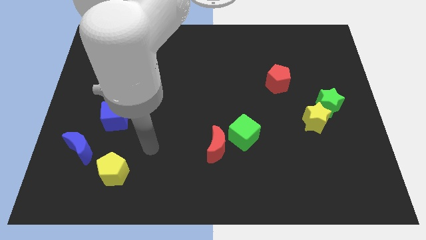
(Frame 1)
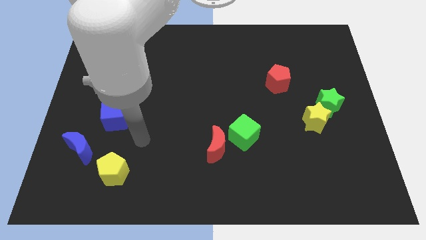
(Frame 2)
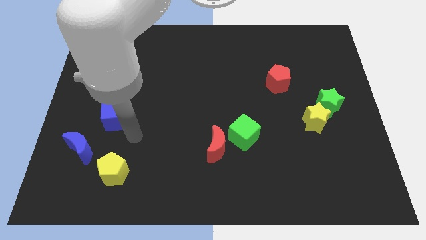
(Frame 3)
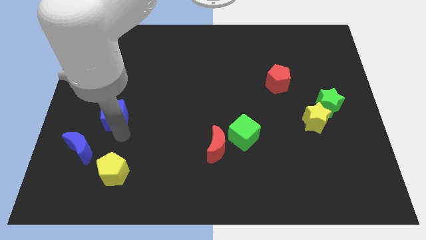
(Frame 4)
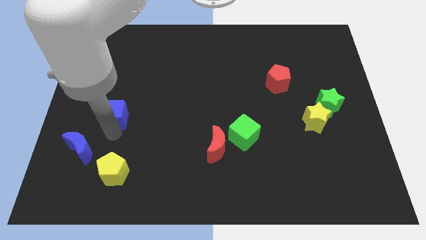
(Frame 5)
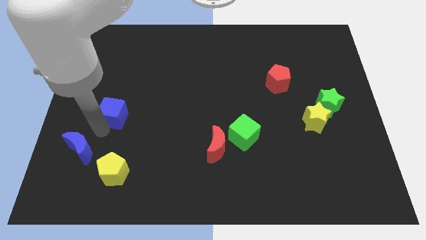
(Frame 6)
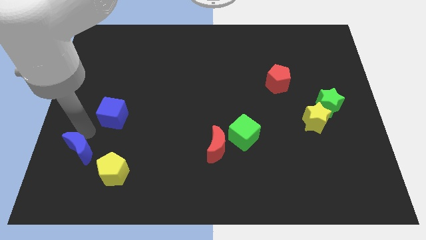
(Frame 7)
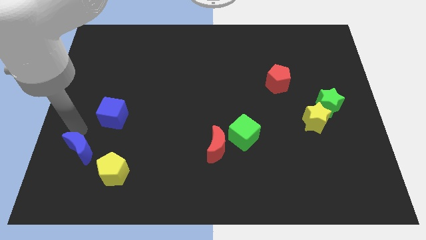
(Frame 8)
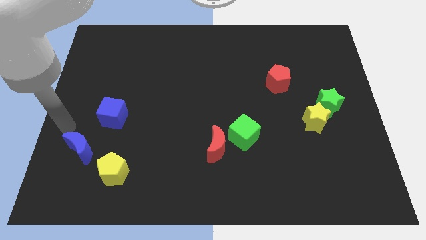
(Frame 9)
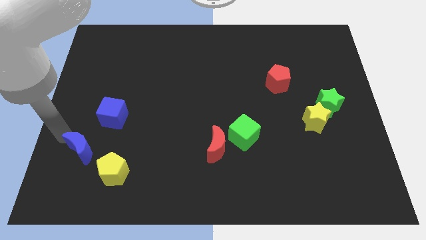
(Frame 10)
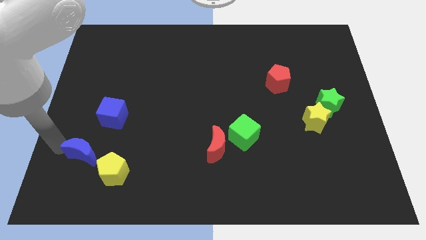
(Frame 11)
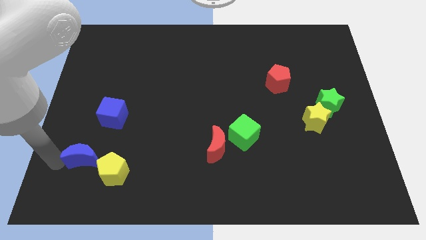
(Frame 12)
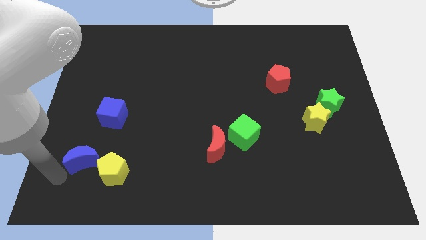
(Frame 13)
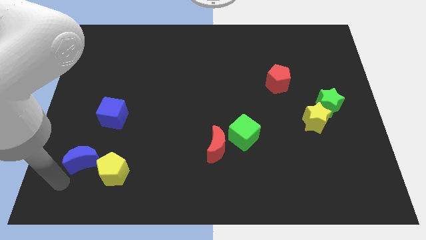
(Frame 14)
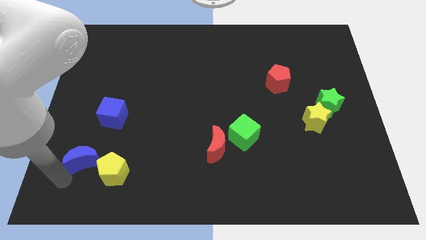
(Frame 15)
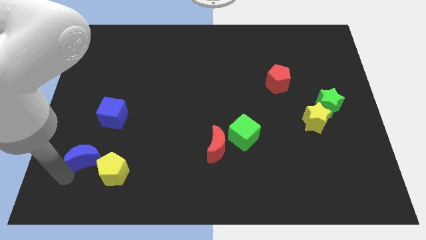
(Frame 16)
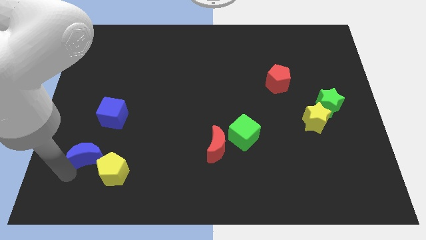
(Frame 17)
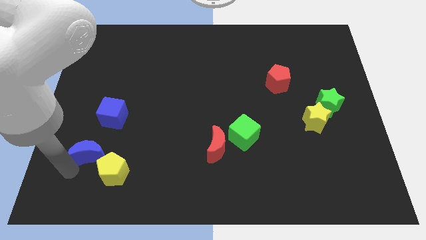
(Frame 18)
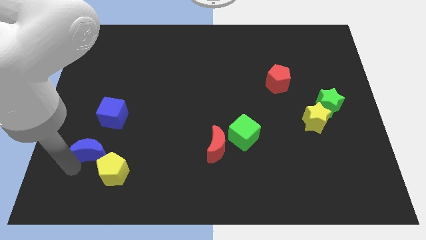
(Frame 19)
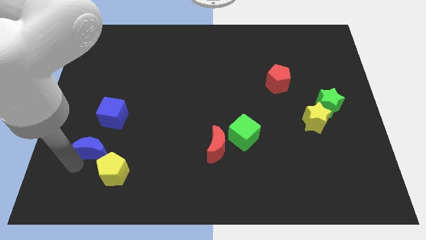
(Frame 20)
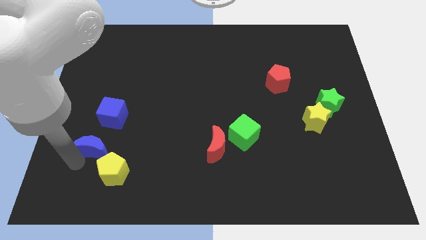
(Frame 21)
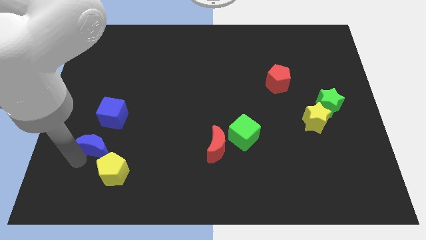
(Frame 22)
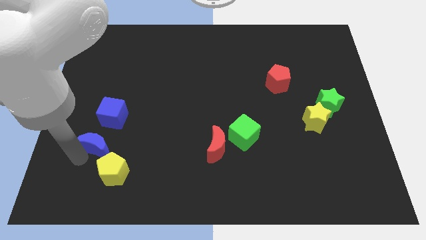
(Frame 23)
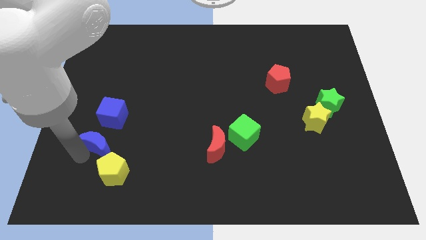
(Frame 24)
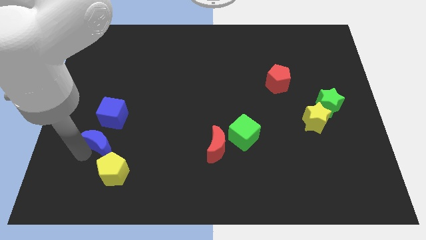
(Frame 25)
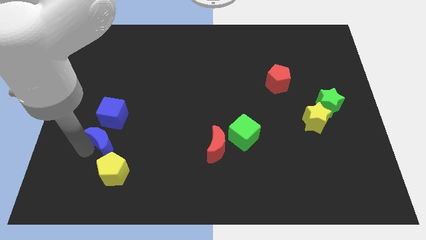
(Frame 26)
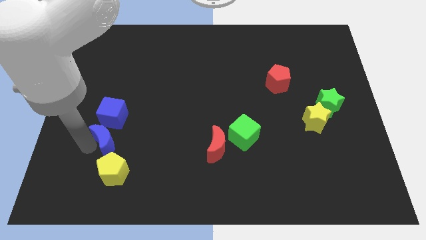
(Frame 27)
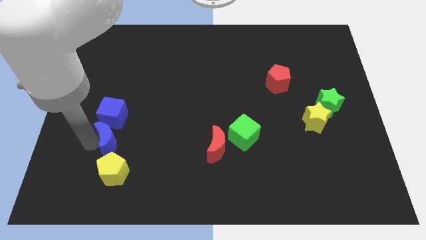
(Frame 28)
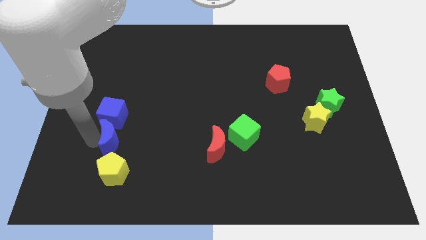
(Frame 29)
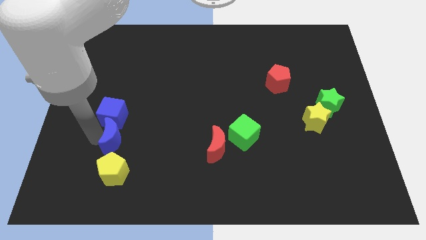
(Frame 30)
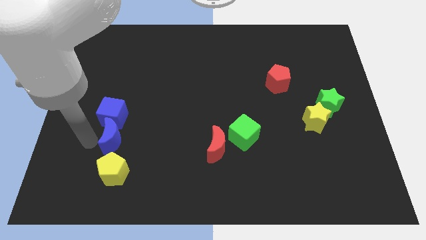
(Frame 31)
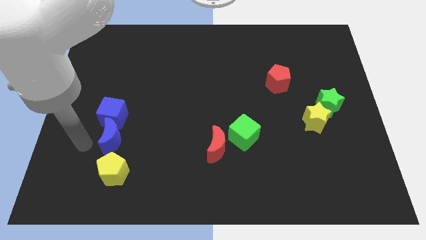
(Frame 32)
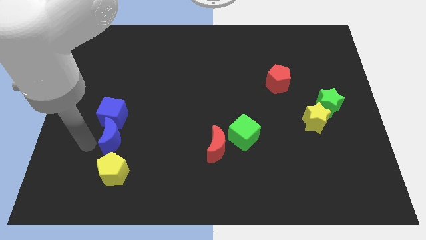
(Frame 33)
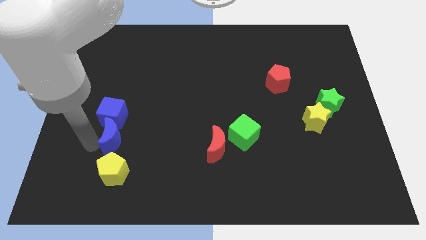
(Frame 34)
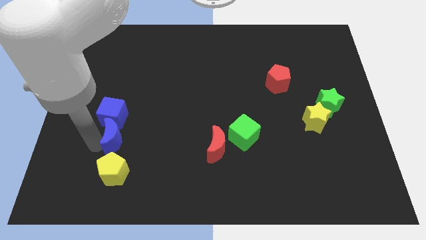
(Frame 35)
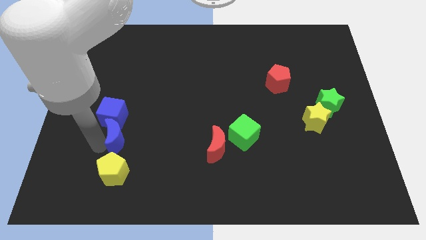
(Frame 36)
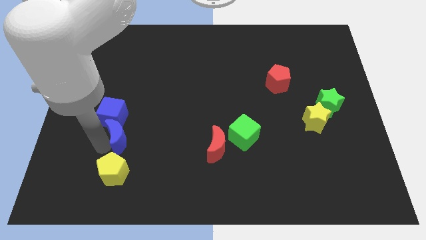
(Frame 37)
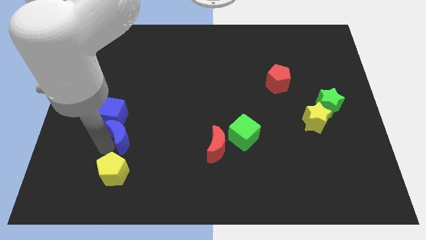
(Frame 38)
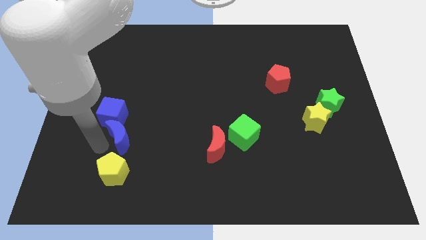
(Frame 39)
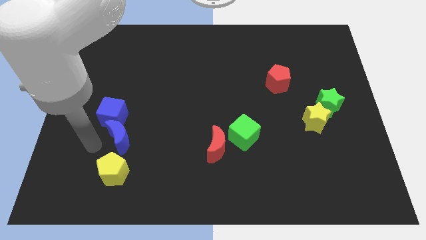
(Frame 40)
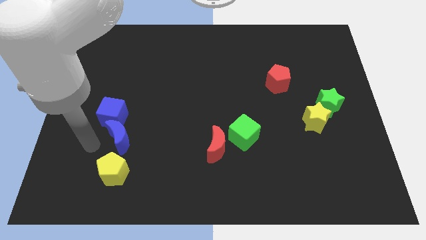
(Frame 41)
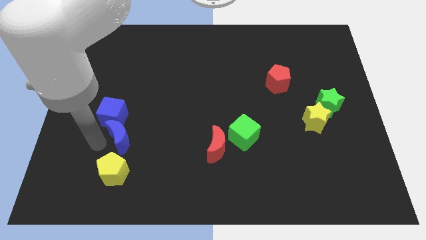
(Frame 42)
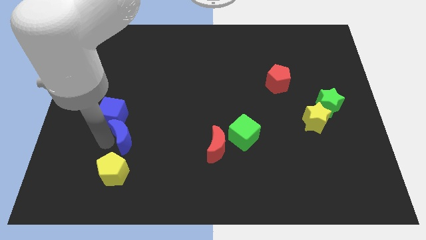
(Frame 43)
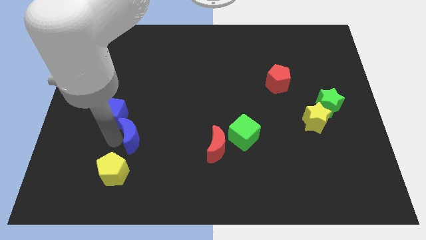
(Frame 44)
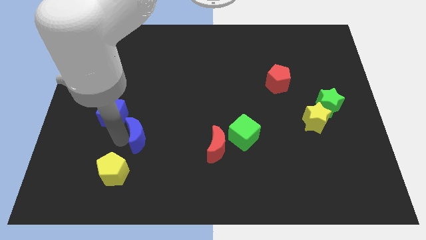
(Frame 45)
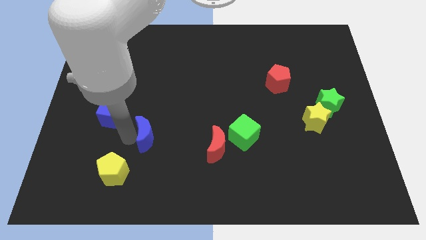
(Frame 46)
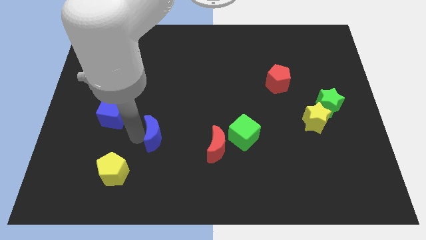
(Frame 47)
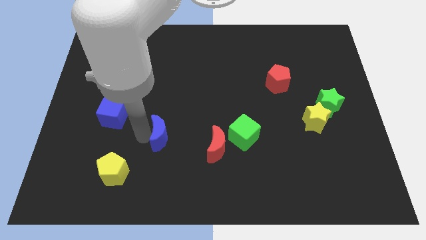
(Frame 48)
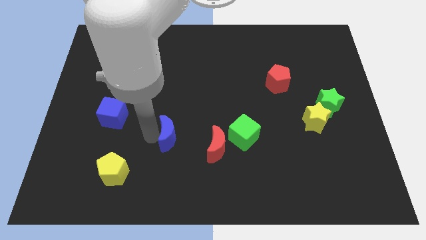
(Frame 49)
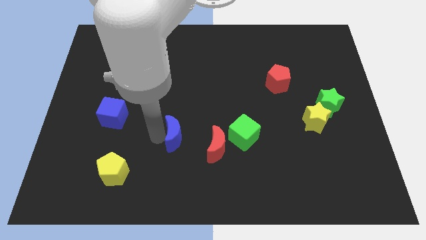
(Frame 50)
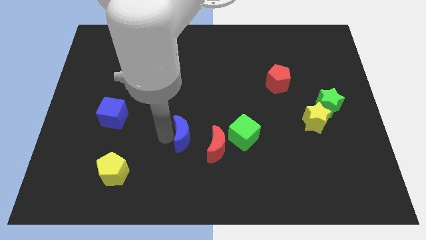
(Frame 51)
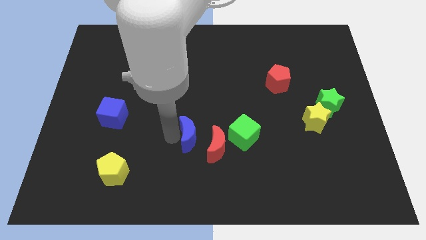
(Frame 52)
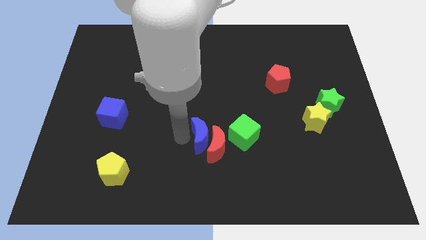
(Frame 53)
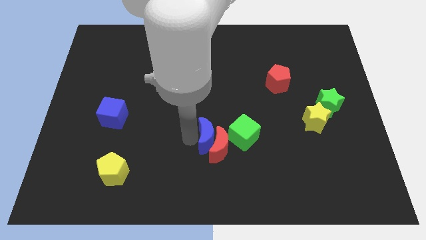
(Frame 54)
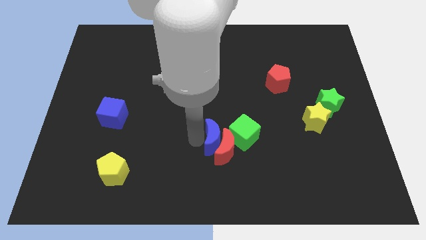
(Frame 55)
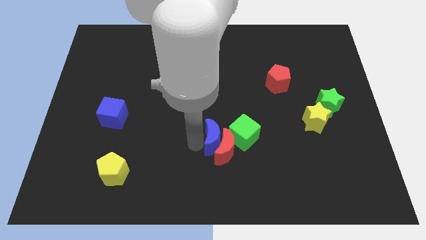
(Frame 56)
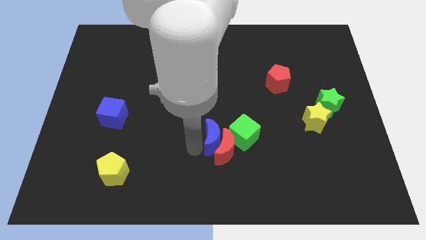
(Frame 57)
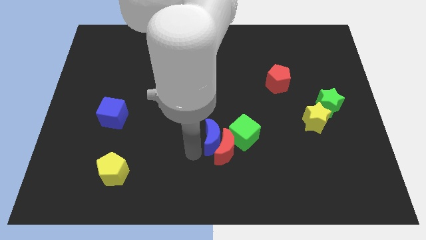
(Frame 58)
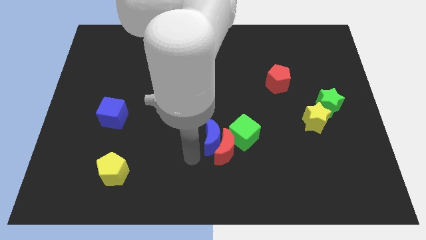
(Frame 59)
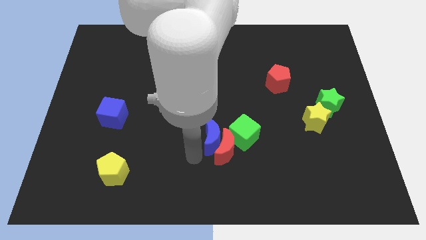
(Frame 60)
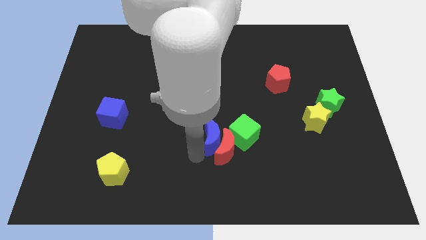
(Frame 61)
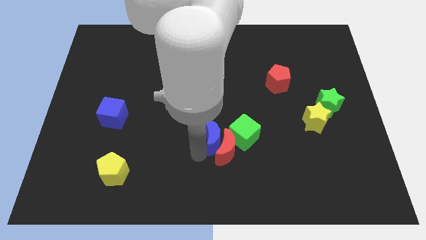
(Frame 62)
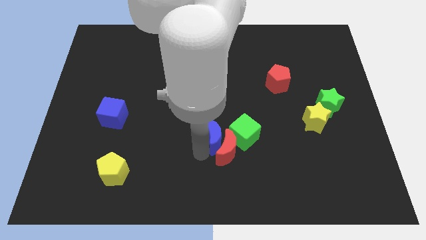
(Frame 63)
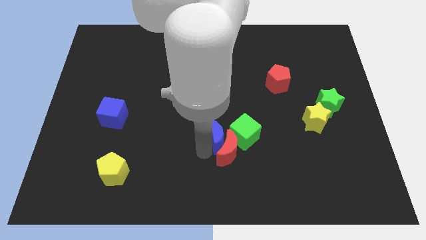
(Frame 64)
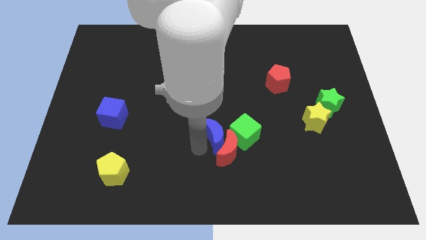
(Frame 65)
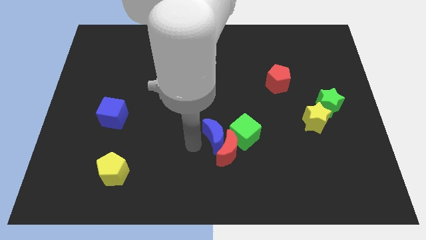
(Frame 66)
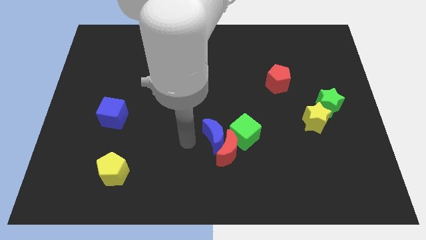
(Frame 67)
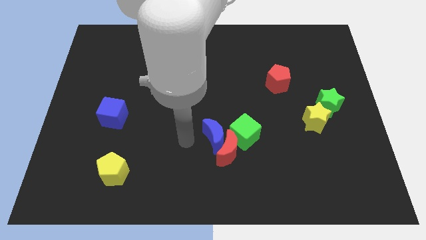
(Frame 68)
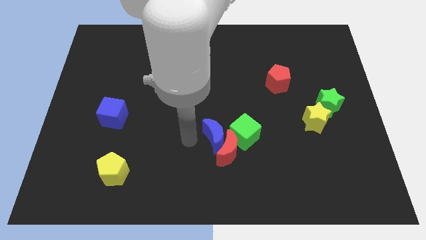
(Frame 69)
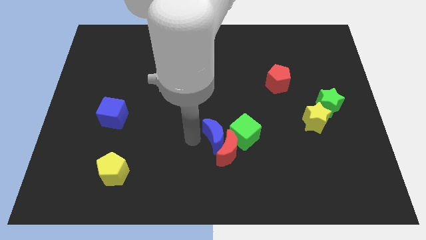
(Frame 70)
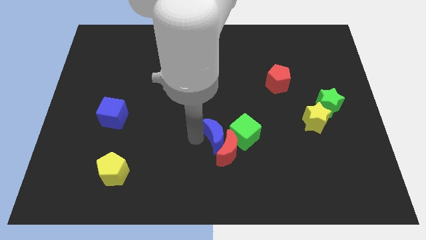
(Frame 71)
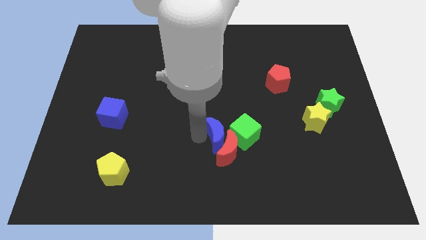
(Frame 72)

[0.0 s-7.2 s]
push the blue moon towards the green cube

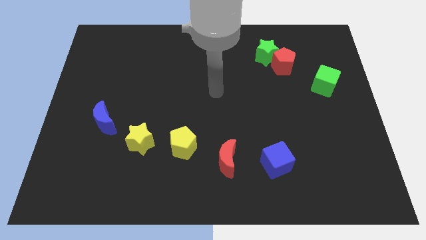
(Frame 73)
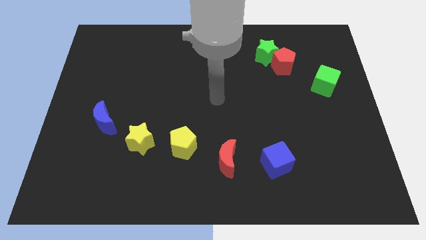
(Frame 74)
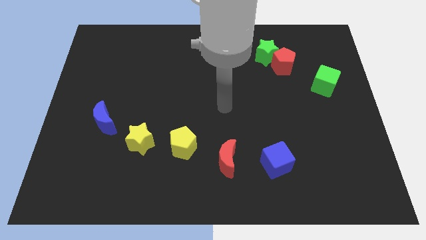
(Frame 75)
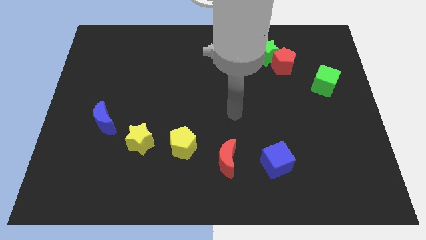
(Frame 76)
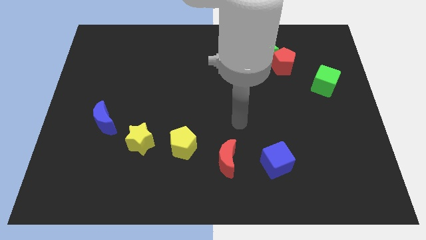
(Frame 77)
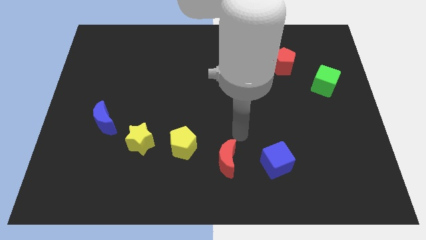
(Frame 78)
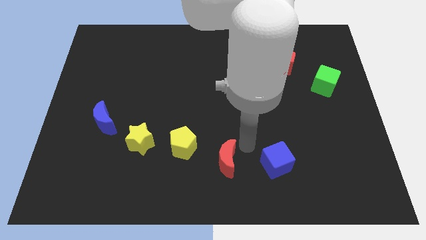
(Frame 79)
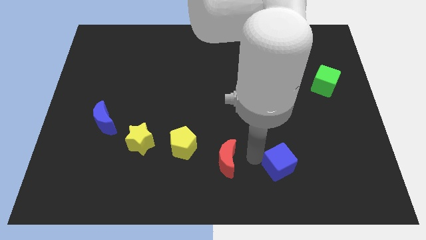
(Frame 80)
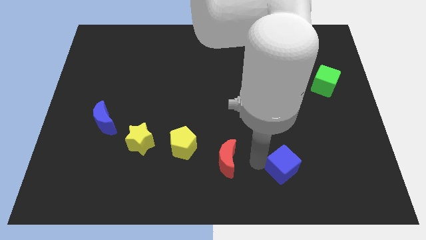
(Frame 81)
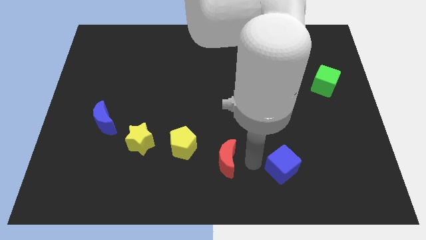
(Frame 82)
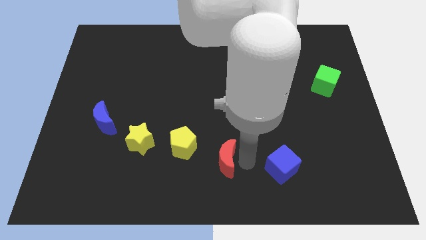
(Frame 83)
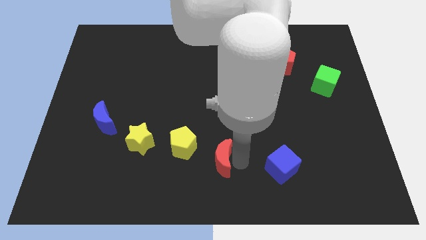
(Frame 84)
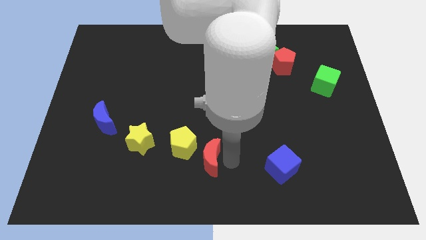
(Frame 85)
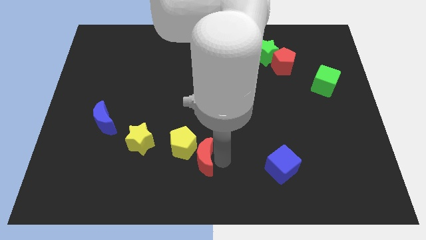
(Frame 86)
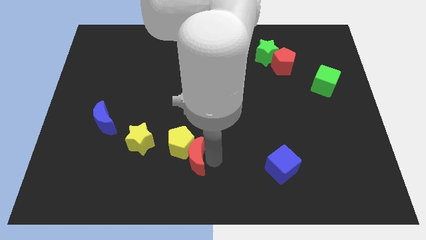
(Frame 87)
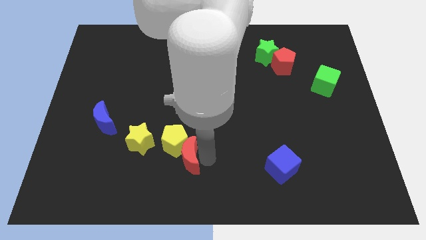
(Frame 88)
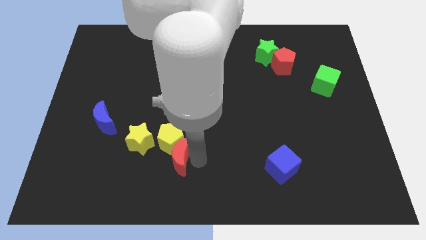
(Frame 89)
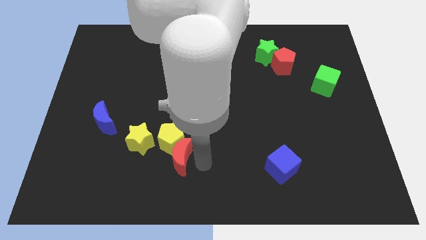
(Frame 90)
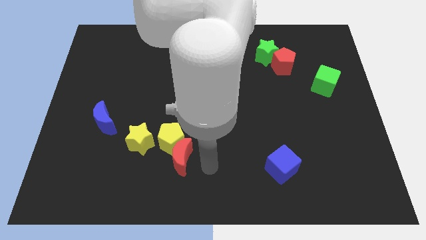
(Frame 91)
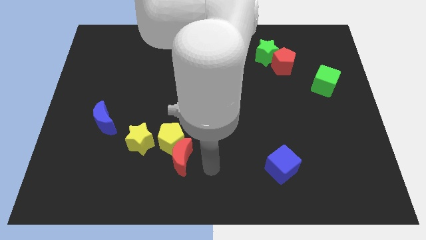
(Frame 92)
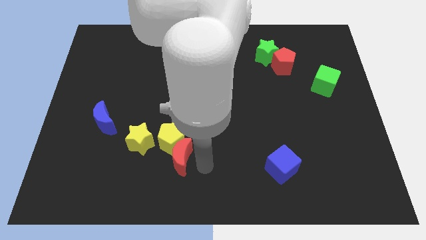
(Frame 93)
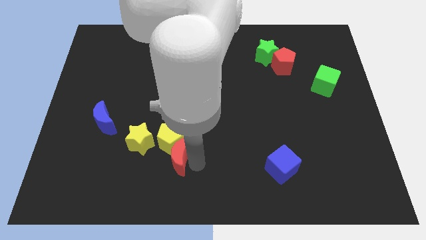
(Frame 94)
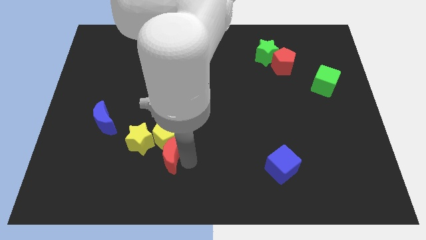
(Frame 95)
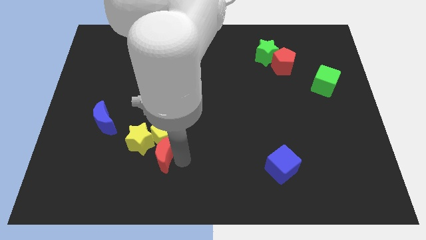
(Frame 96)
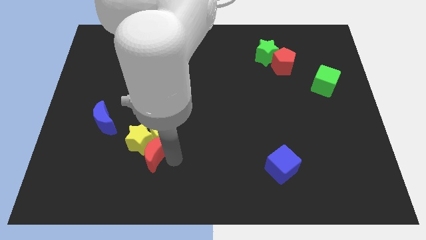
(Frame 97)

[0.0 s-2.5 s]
push the red moon next to the yellow star
